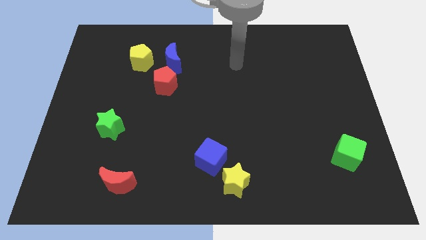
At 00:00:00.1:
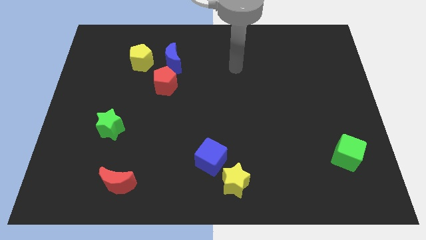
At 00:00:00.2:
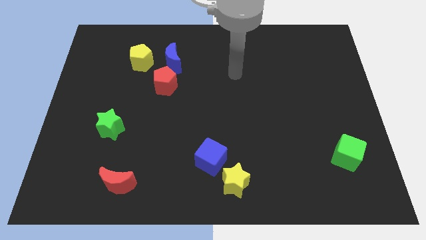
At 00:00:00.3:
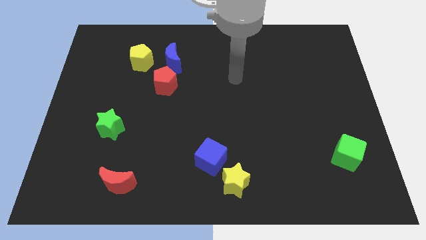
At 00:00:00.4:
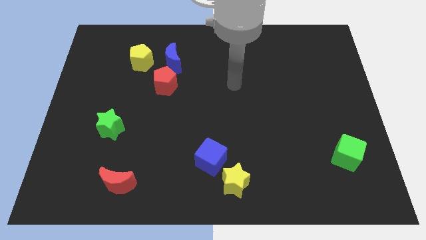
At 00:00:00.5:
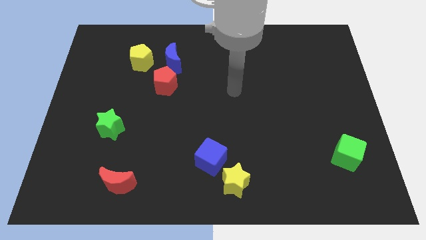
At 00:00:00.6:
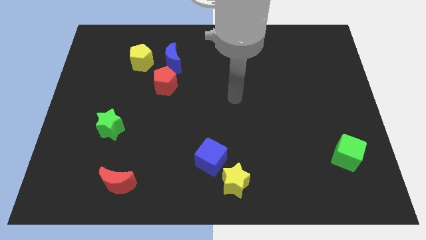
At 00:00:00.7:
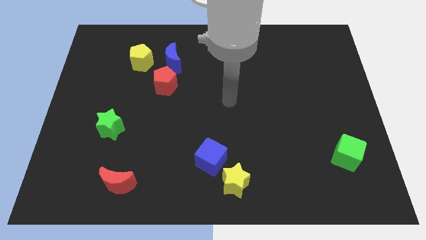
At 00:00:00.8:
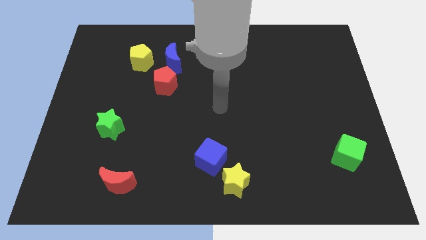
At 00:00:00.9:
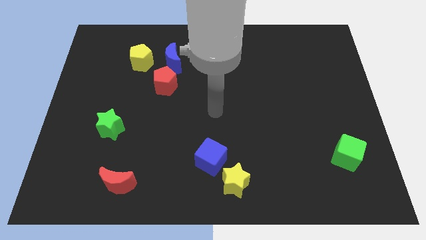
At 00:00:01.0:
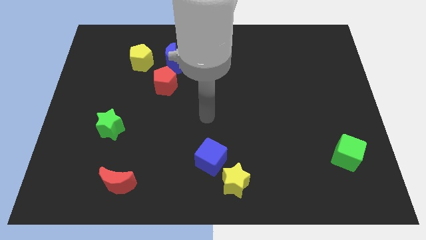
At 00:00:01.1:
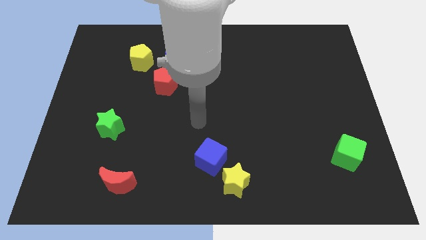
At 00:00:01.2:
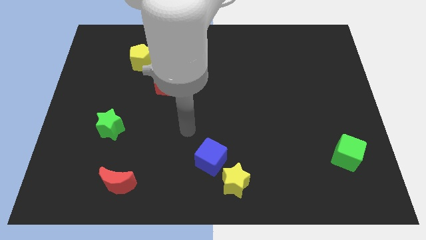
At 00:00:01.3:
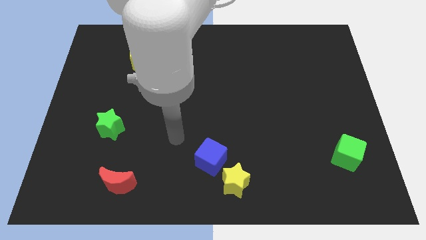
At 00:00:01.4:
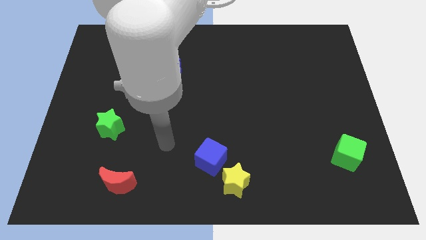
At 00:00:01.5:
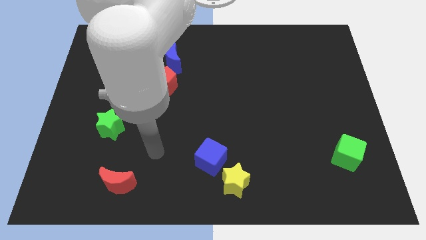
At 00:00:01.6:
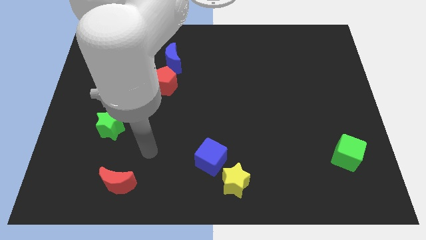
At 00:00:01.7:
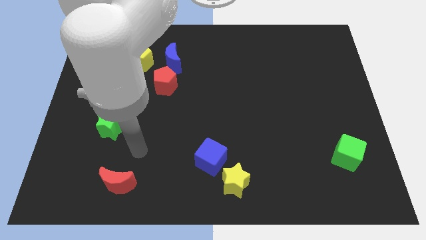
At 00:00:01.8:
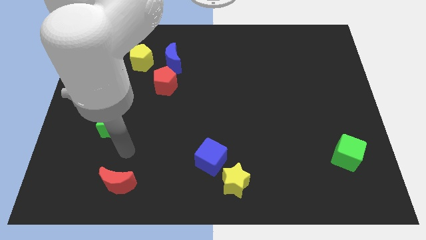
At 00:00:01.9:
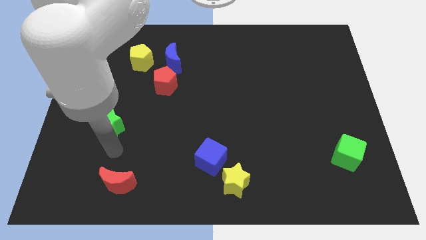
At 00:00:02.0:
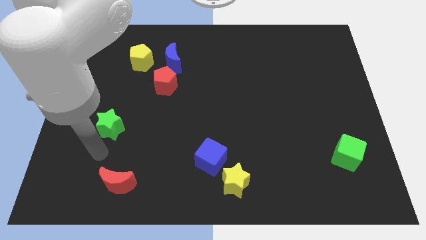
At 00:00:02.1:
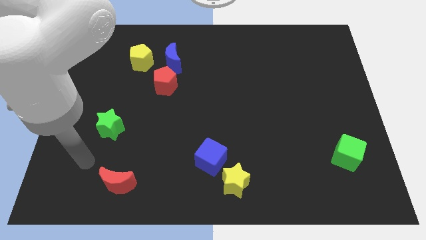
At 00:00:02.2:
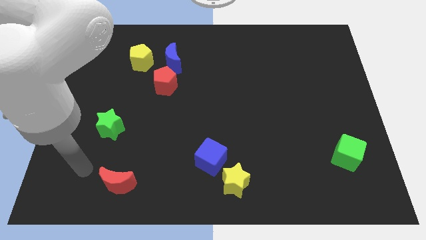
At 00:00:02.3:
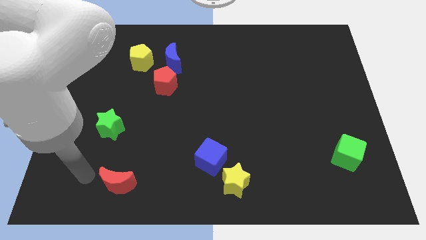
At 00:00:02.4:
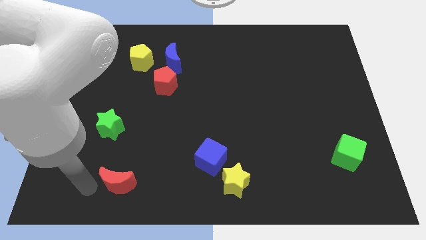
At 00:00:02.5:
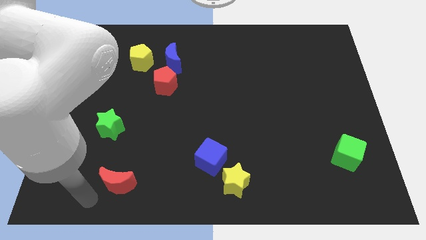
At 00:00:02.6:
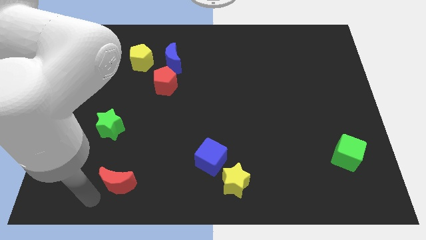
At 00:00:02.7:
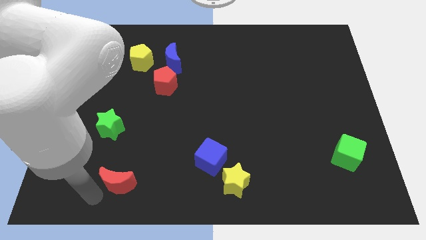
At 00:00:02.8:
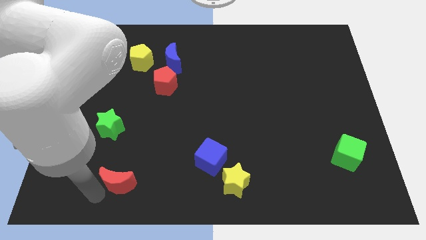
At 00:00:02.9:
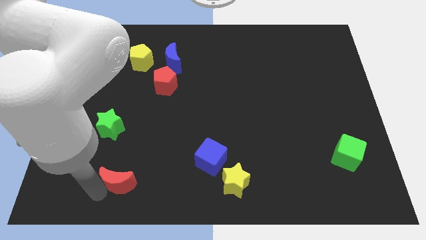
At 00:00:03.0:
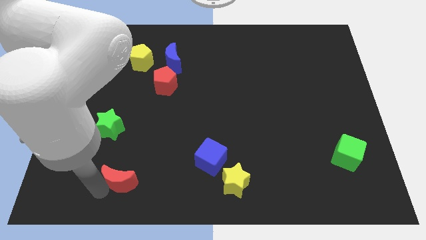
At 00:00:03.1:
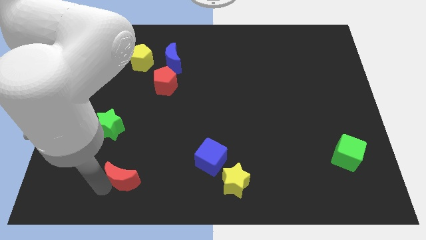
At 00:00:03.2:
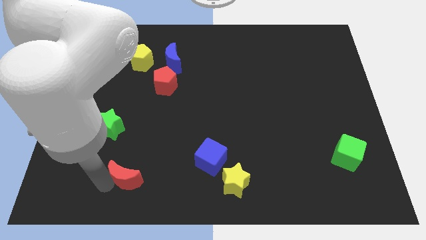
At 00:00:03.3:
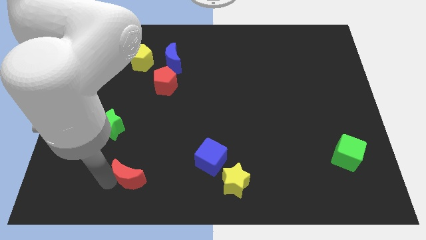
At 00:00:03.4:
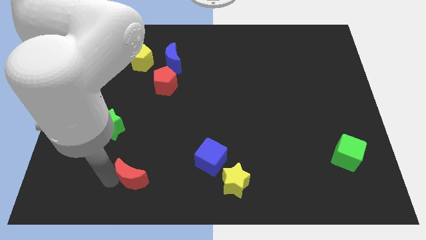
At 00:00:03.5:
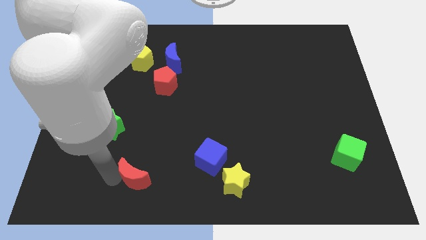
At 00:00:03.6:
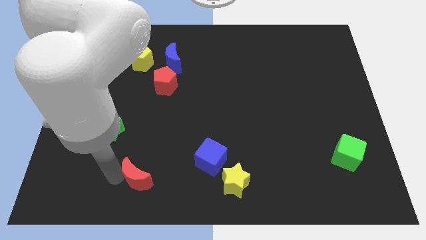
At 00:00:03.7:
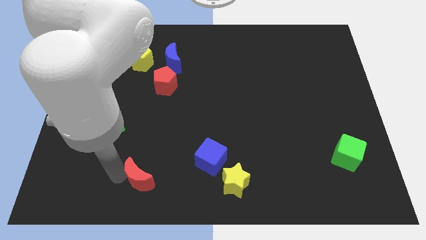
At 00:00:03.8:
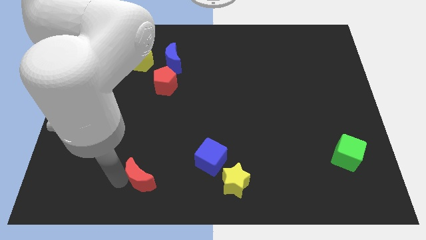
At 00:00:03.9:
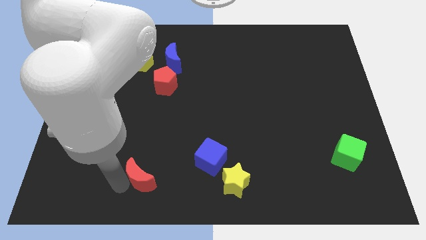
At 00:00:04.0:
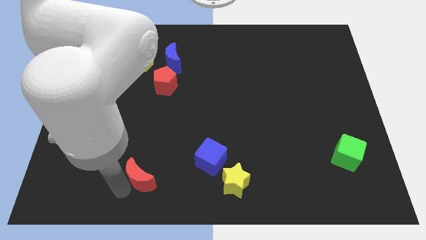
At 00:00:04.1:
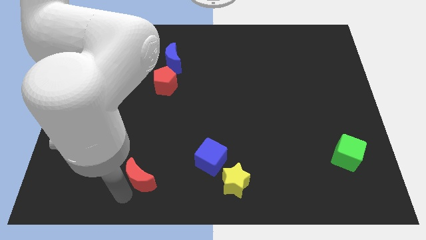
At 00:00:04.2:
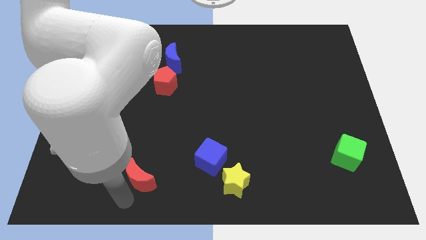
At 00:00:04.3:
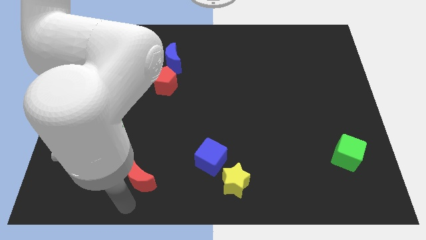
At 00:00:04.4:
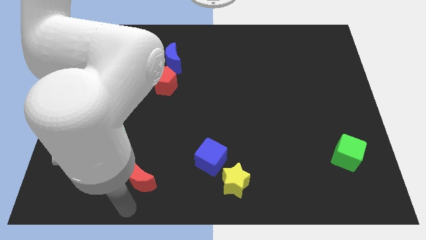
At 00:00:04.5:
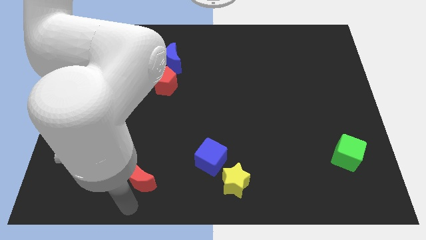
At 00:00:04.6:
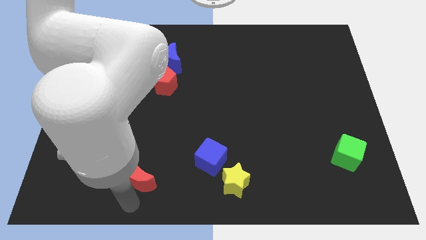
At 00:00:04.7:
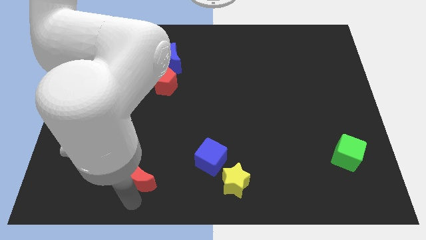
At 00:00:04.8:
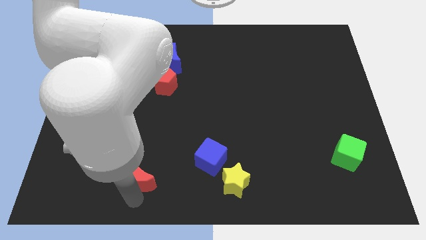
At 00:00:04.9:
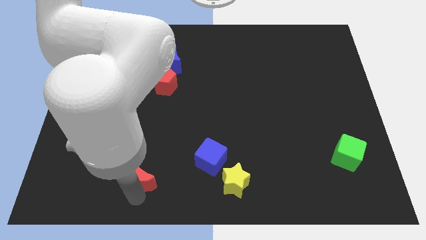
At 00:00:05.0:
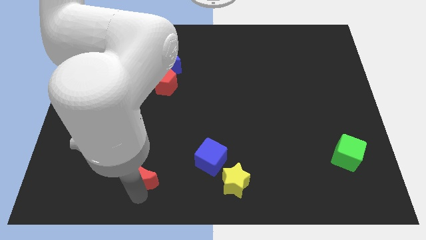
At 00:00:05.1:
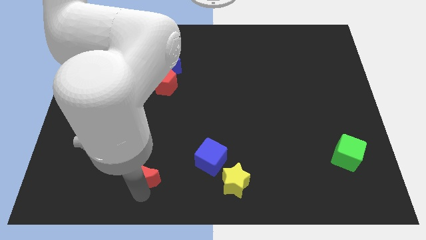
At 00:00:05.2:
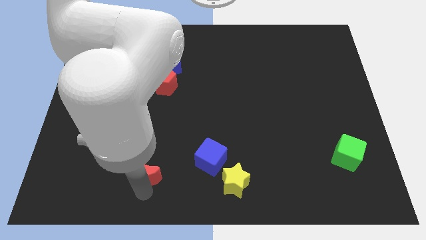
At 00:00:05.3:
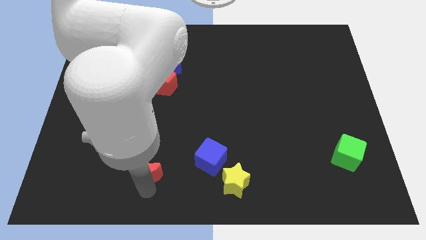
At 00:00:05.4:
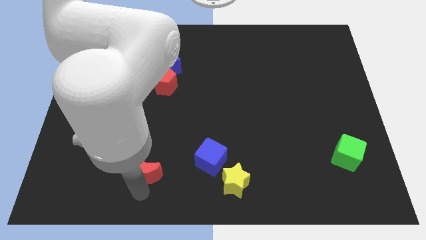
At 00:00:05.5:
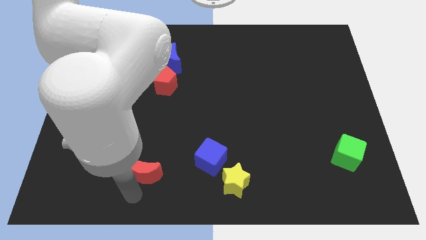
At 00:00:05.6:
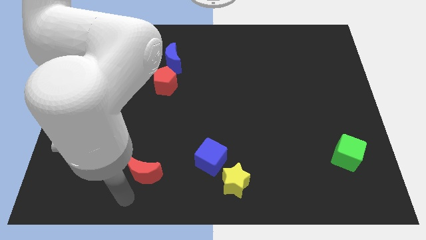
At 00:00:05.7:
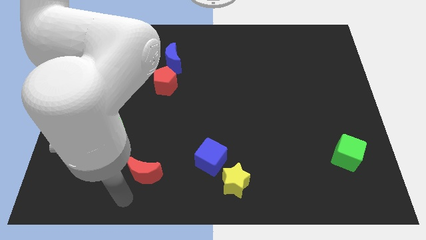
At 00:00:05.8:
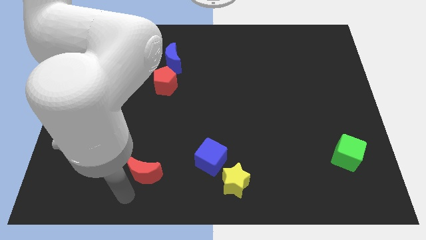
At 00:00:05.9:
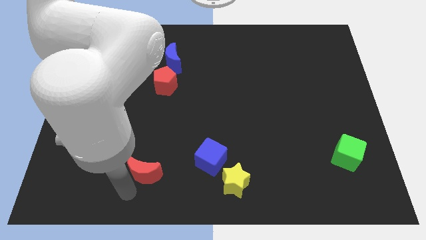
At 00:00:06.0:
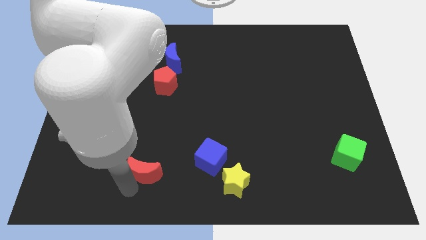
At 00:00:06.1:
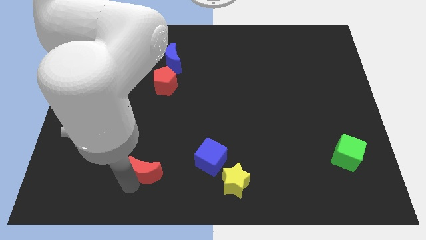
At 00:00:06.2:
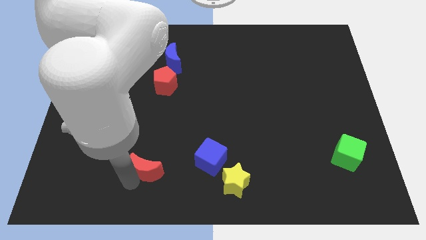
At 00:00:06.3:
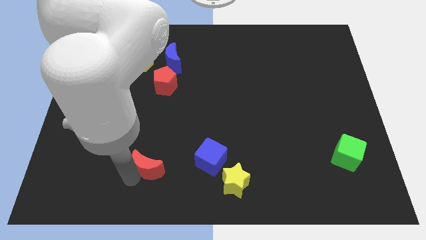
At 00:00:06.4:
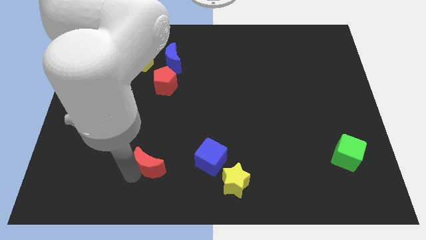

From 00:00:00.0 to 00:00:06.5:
push the red moon upwards and to the right diagonally a little bit

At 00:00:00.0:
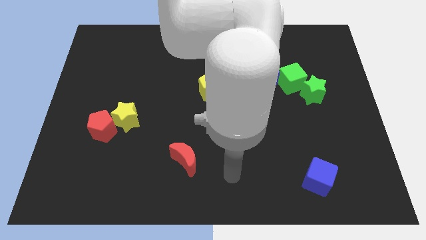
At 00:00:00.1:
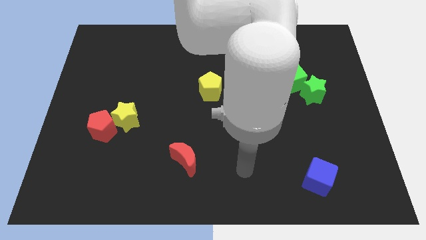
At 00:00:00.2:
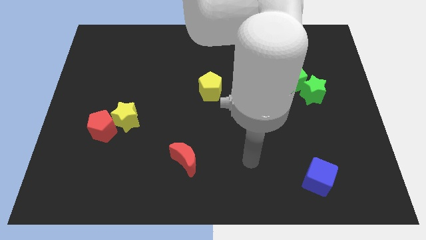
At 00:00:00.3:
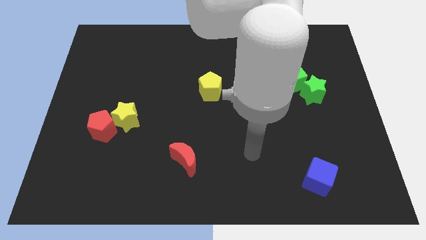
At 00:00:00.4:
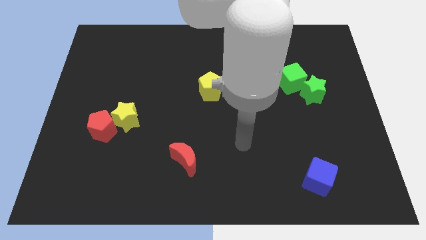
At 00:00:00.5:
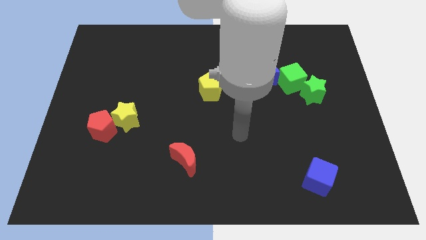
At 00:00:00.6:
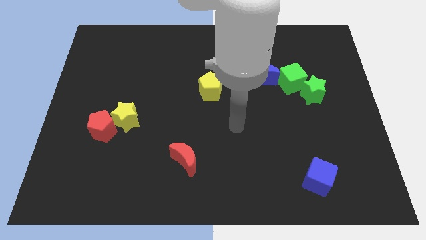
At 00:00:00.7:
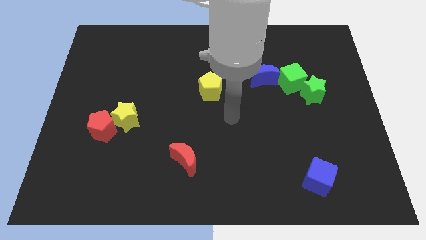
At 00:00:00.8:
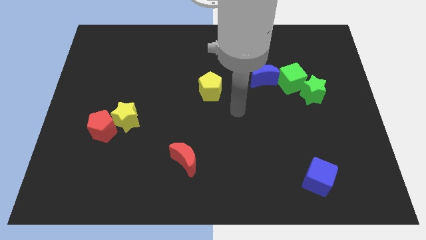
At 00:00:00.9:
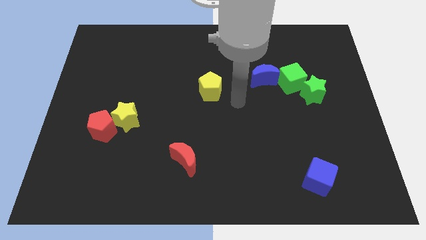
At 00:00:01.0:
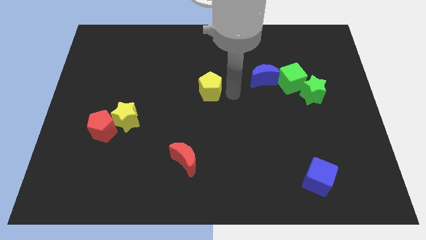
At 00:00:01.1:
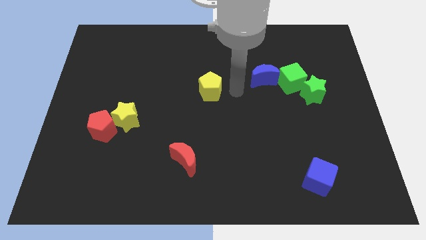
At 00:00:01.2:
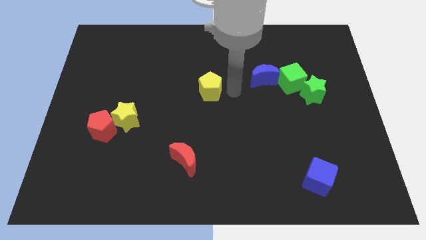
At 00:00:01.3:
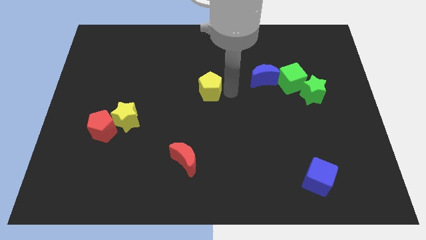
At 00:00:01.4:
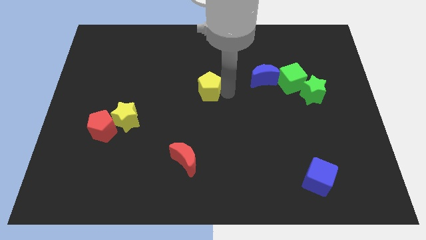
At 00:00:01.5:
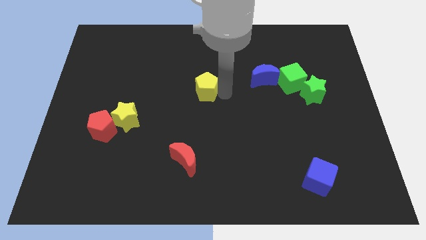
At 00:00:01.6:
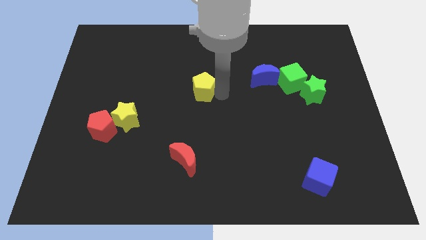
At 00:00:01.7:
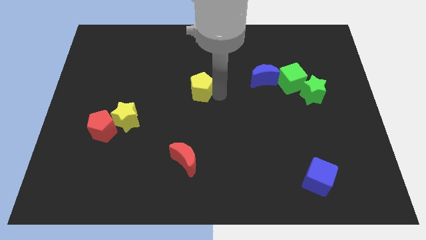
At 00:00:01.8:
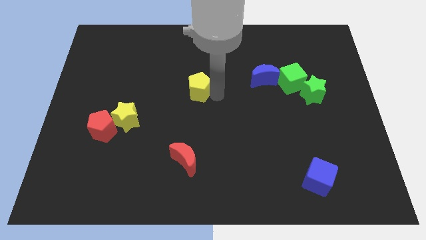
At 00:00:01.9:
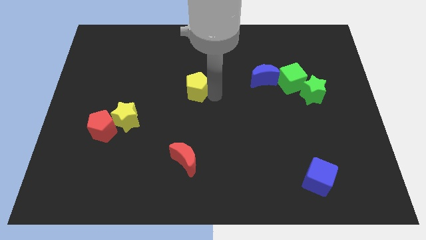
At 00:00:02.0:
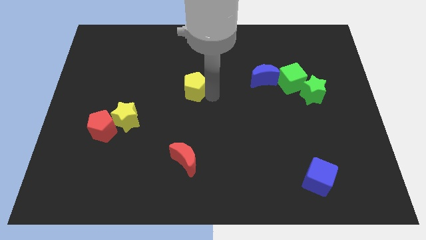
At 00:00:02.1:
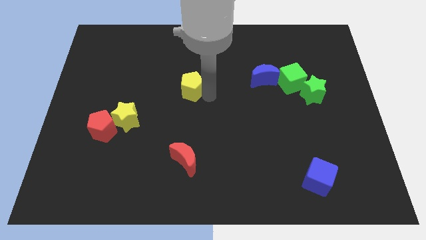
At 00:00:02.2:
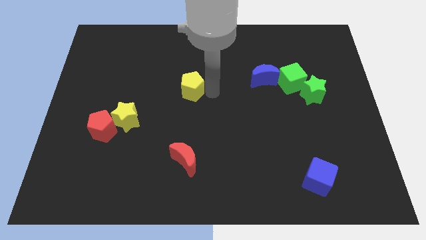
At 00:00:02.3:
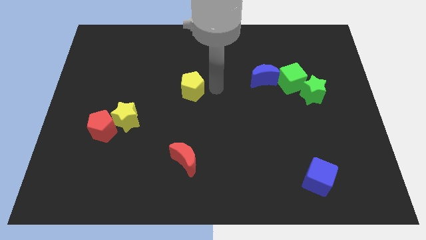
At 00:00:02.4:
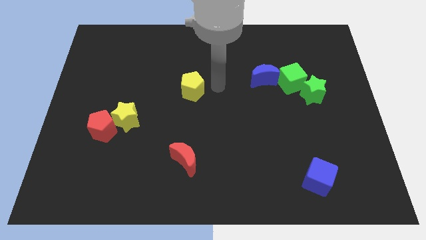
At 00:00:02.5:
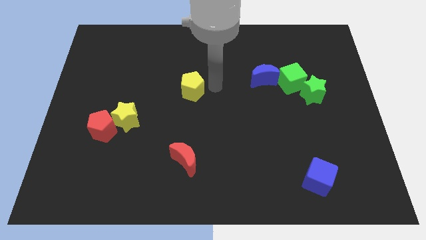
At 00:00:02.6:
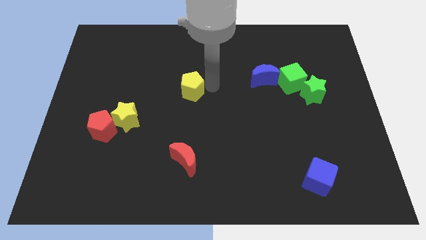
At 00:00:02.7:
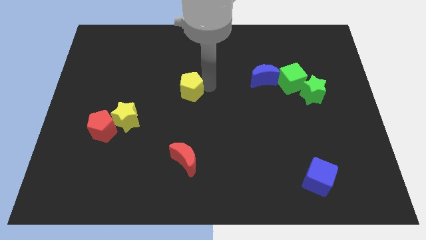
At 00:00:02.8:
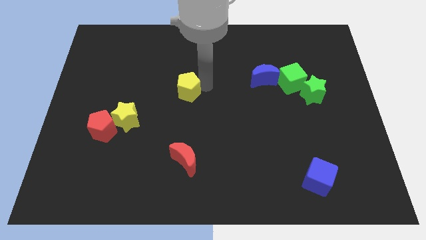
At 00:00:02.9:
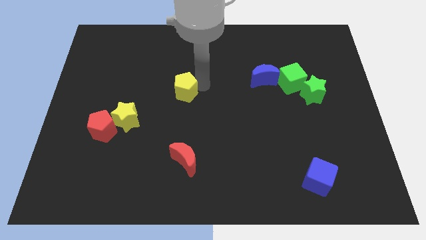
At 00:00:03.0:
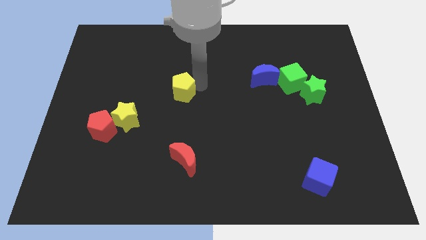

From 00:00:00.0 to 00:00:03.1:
push the yellow pentagon somewhat to the left
